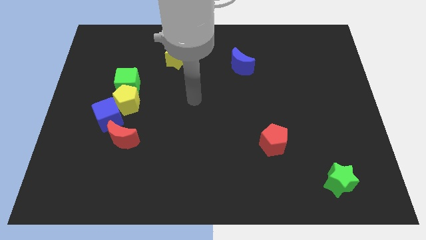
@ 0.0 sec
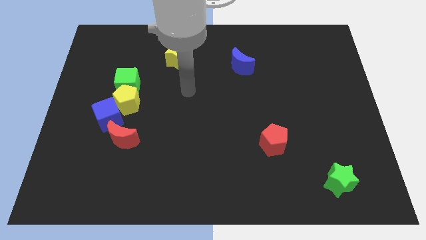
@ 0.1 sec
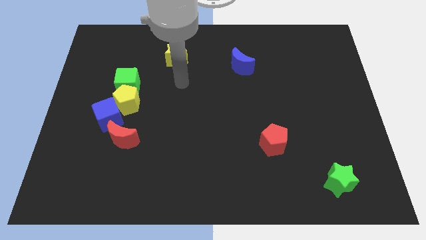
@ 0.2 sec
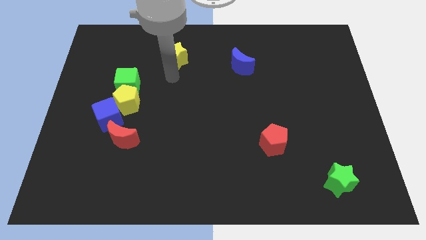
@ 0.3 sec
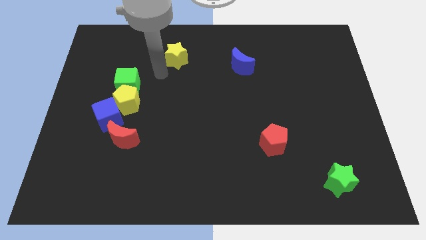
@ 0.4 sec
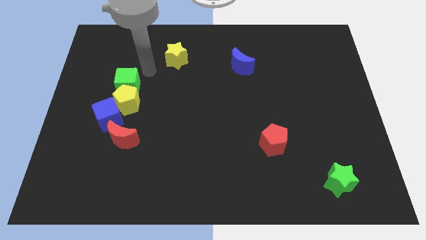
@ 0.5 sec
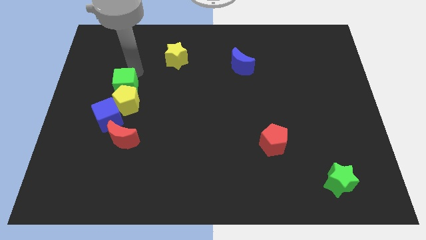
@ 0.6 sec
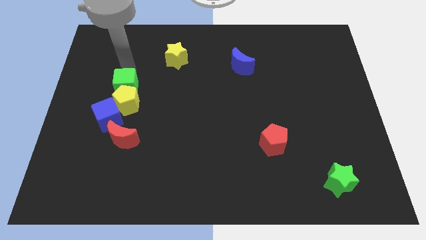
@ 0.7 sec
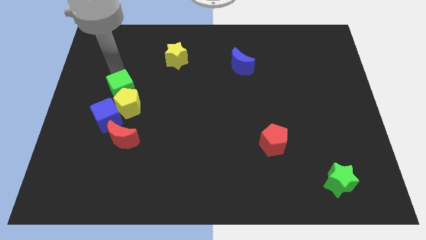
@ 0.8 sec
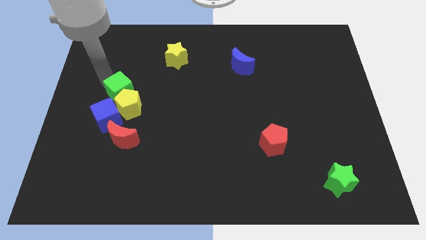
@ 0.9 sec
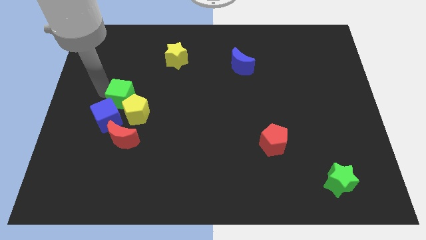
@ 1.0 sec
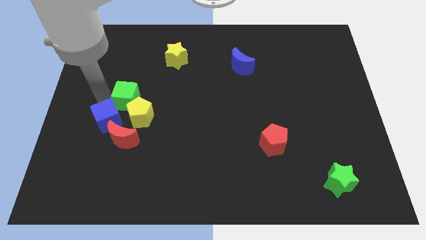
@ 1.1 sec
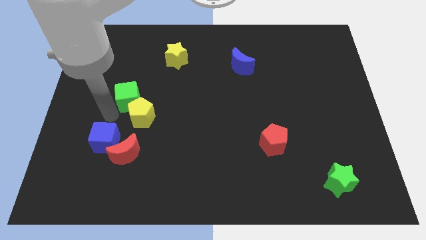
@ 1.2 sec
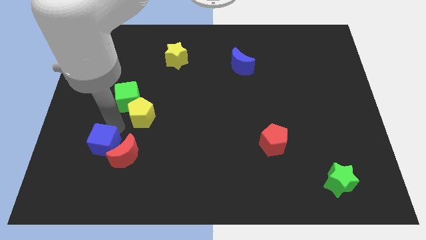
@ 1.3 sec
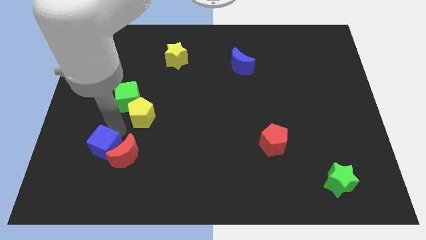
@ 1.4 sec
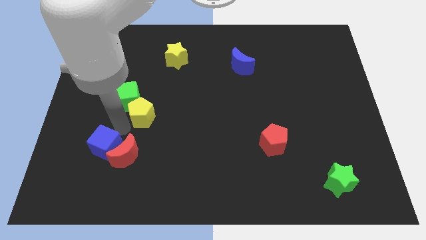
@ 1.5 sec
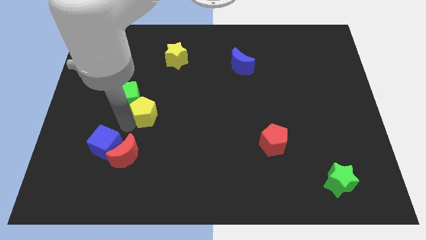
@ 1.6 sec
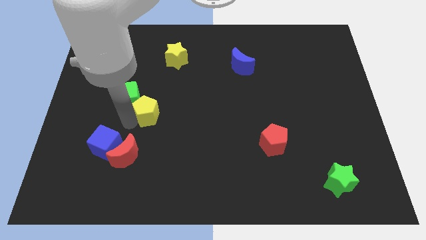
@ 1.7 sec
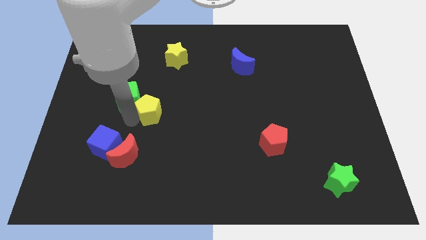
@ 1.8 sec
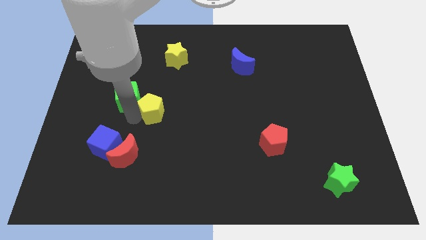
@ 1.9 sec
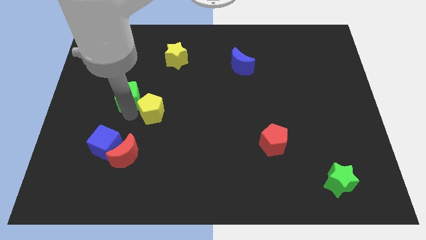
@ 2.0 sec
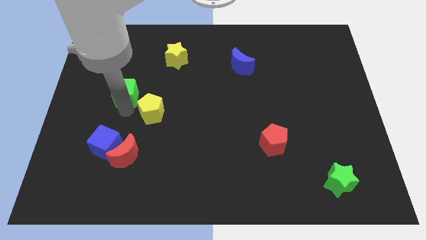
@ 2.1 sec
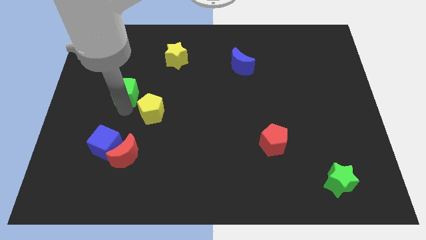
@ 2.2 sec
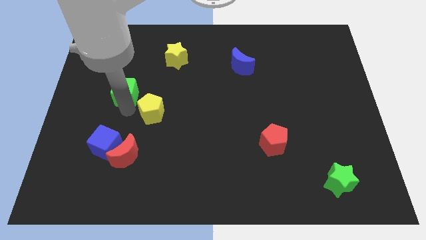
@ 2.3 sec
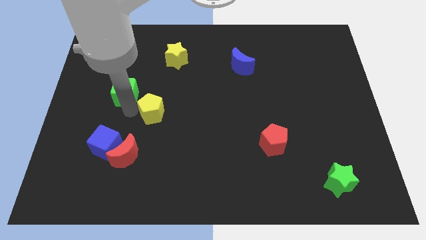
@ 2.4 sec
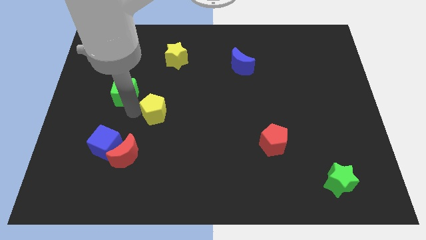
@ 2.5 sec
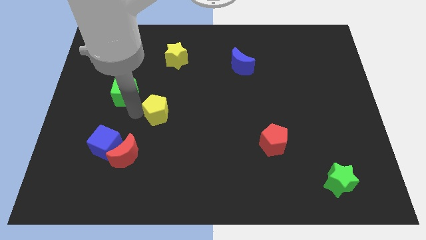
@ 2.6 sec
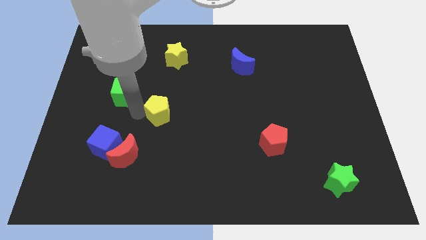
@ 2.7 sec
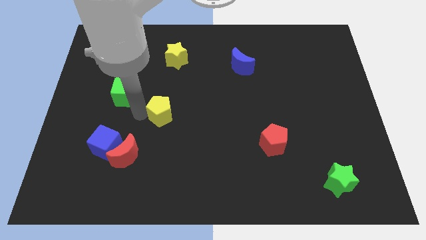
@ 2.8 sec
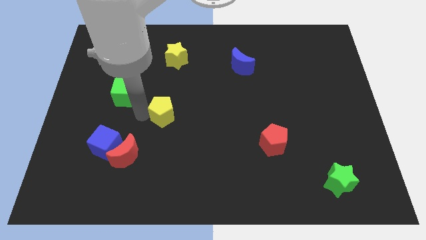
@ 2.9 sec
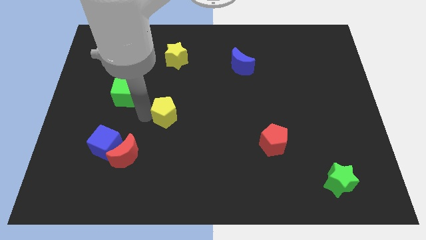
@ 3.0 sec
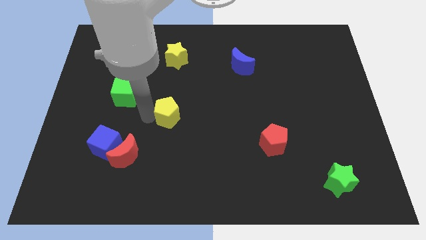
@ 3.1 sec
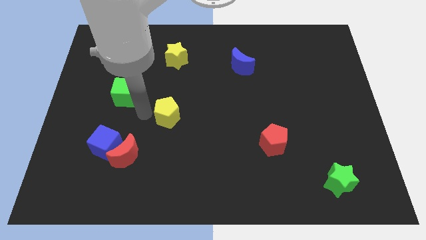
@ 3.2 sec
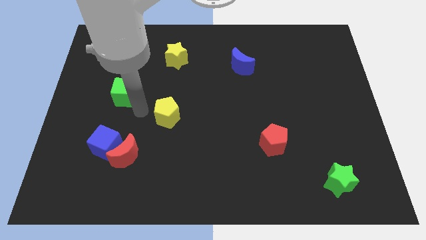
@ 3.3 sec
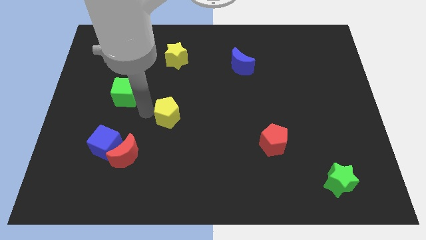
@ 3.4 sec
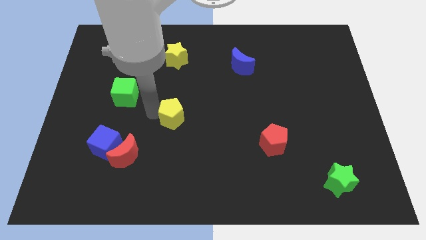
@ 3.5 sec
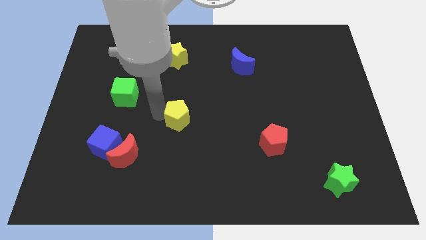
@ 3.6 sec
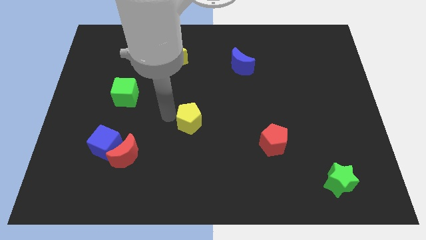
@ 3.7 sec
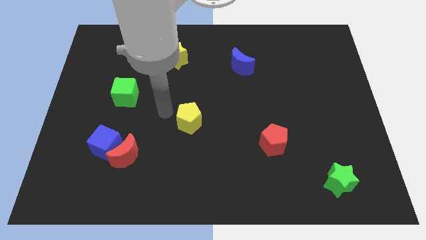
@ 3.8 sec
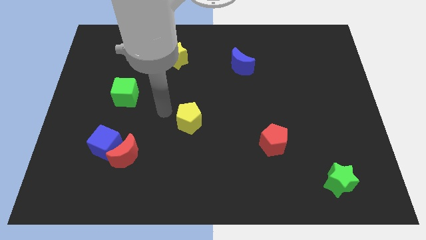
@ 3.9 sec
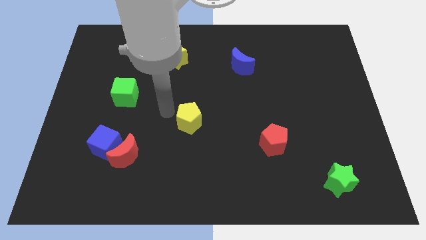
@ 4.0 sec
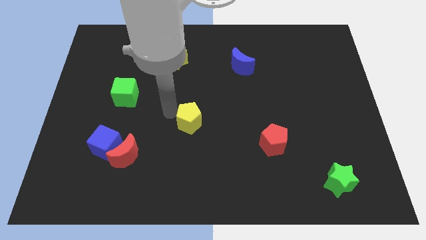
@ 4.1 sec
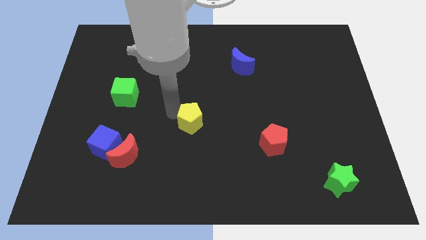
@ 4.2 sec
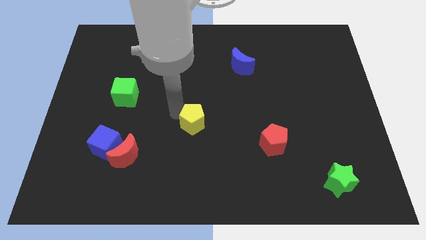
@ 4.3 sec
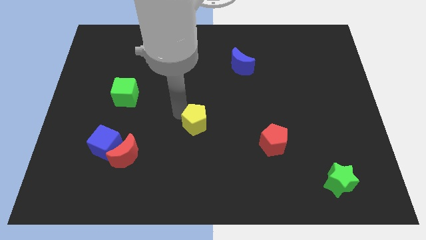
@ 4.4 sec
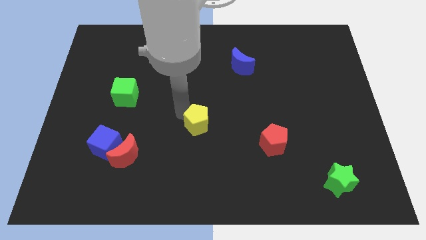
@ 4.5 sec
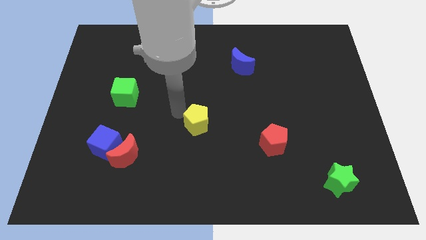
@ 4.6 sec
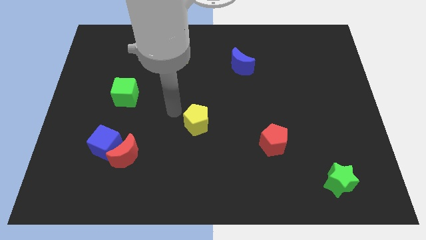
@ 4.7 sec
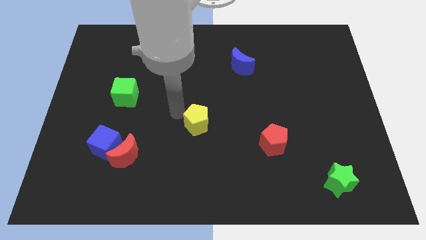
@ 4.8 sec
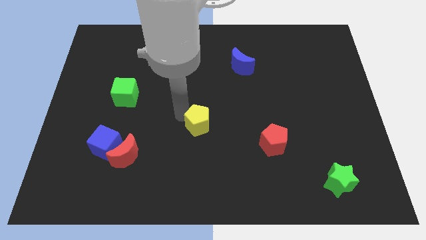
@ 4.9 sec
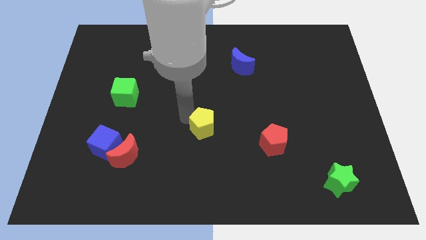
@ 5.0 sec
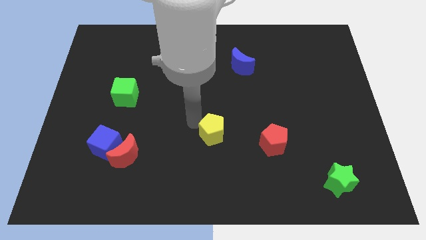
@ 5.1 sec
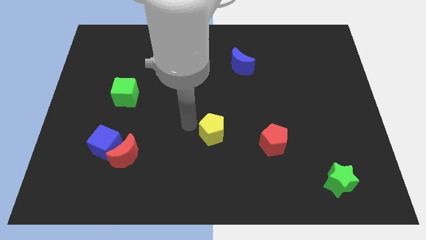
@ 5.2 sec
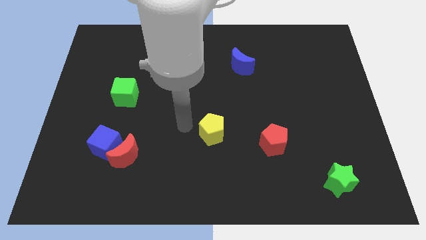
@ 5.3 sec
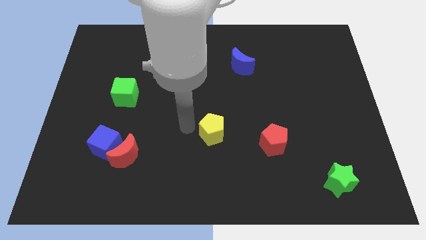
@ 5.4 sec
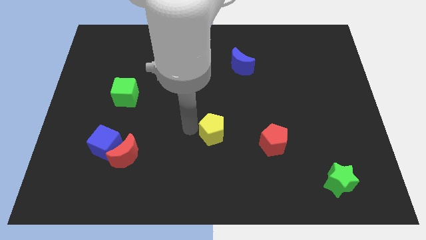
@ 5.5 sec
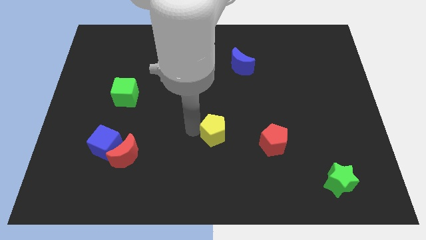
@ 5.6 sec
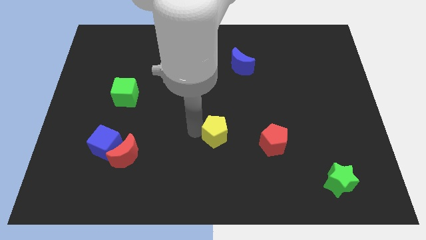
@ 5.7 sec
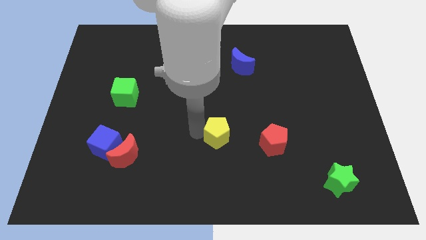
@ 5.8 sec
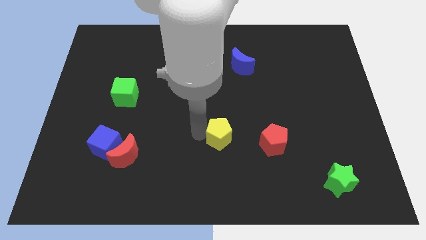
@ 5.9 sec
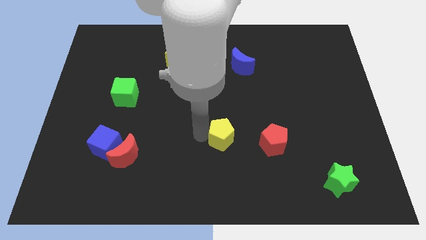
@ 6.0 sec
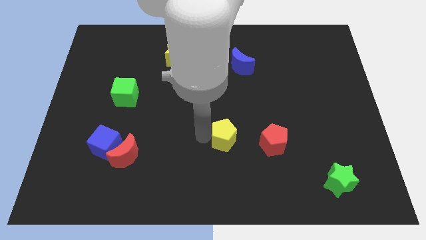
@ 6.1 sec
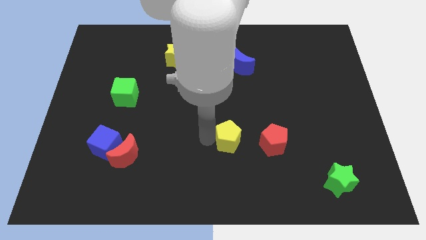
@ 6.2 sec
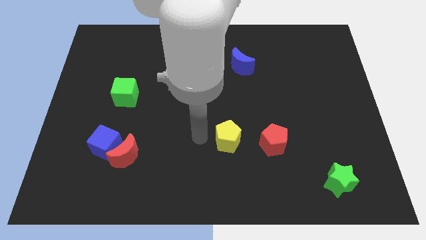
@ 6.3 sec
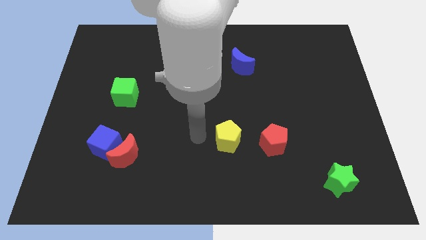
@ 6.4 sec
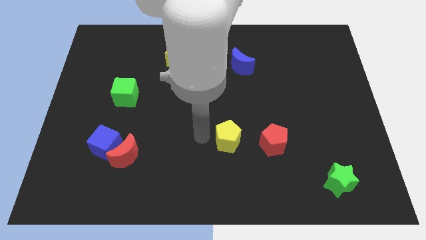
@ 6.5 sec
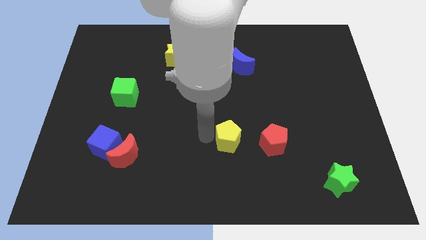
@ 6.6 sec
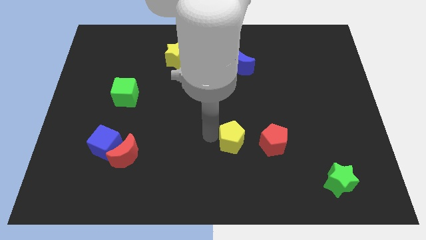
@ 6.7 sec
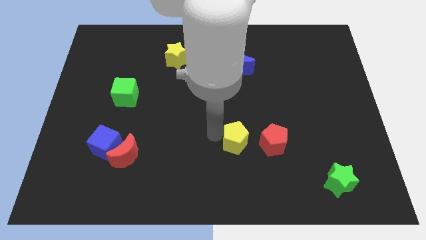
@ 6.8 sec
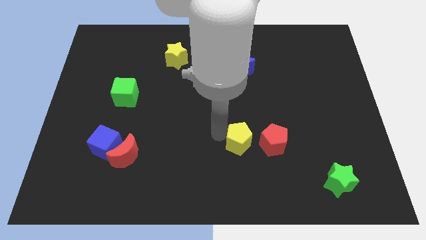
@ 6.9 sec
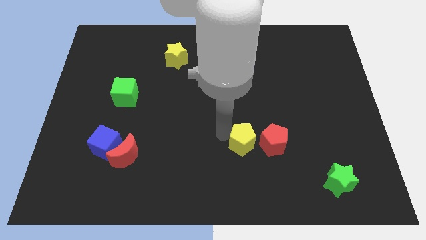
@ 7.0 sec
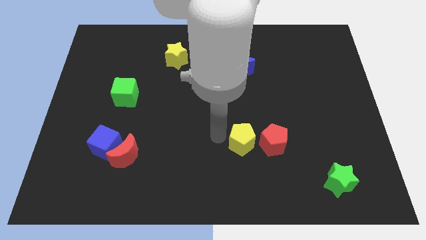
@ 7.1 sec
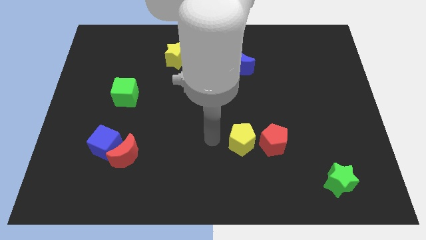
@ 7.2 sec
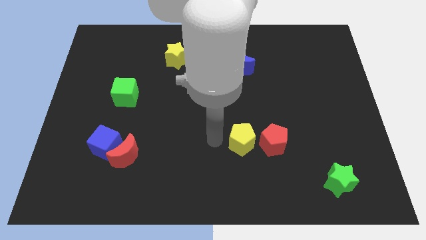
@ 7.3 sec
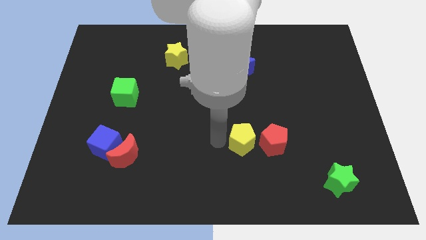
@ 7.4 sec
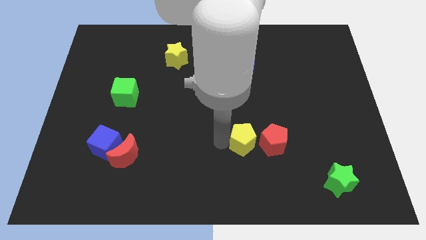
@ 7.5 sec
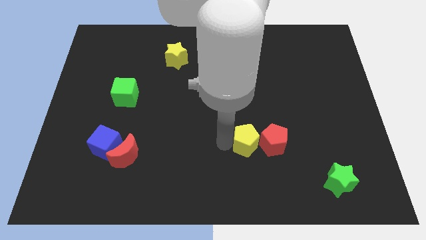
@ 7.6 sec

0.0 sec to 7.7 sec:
slide the yellow pentagon towards the red pentagon
